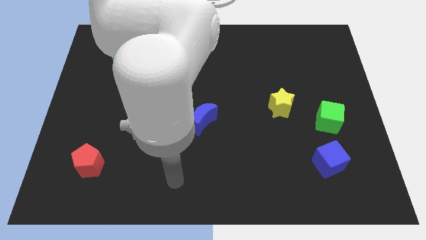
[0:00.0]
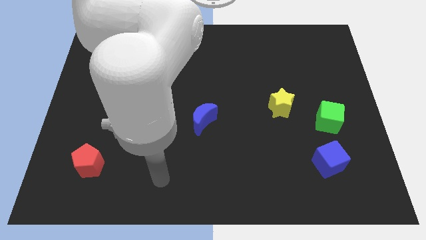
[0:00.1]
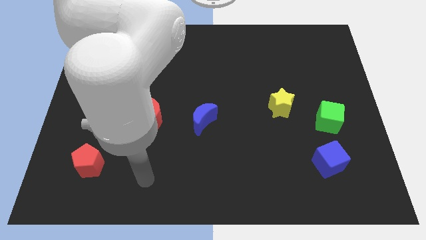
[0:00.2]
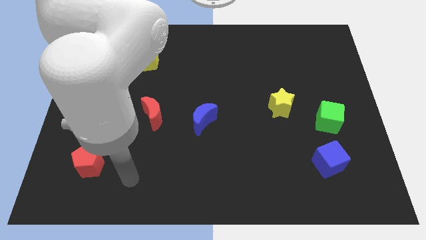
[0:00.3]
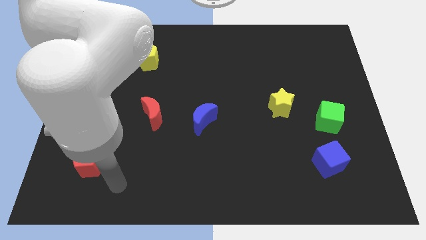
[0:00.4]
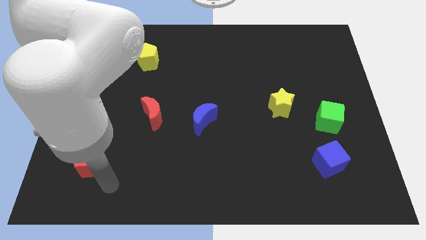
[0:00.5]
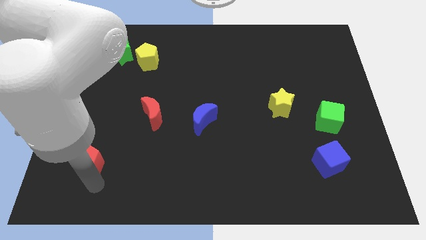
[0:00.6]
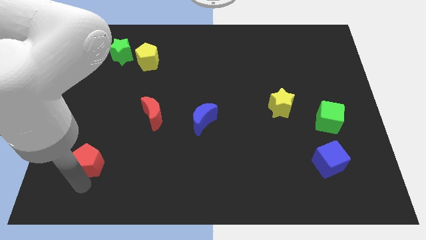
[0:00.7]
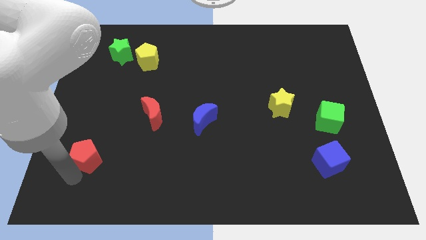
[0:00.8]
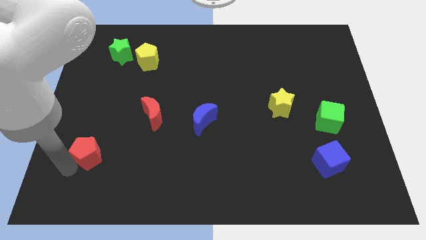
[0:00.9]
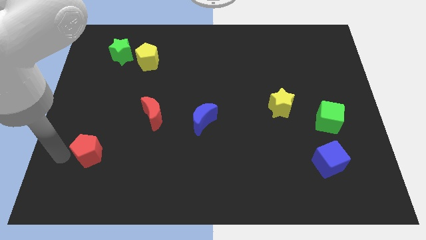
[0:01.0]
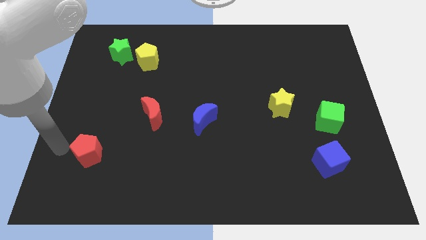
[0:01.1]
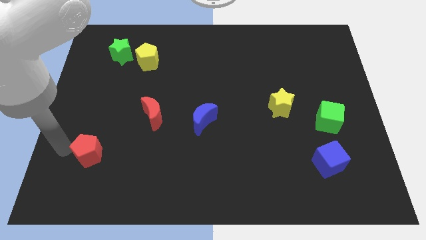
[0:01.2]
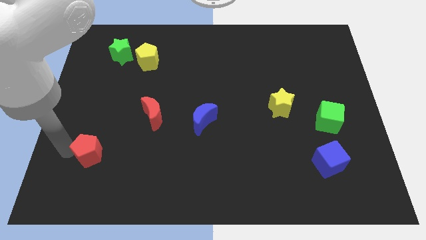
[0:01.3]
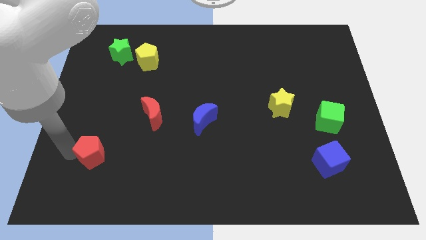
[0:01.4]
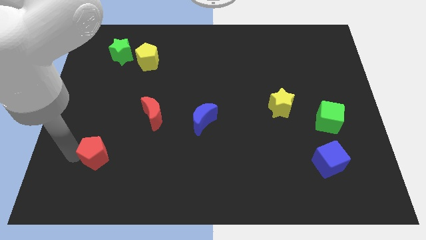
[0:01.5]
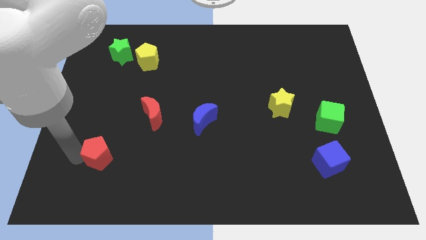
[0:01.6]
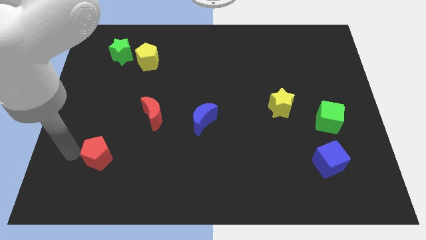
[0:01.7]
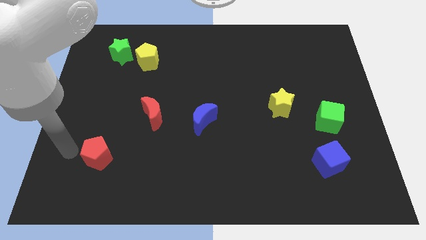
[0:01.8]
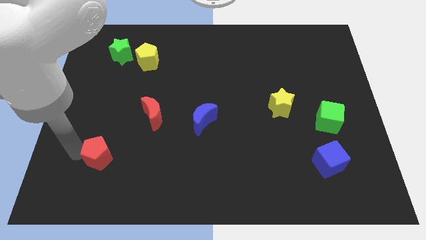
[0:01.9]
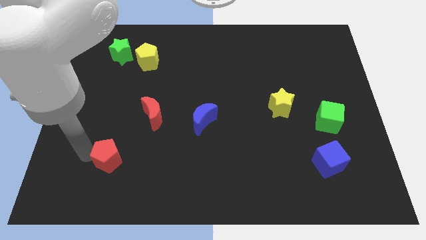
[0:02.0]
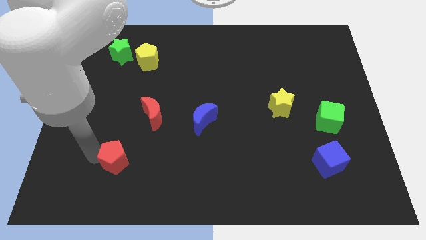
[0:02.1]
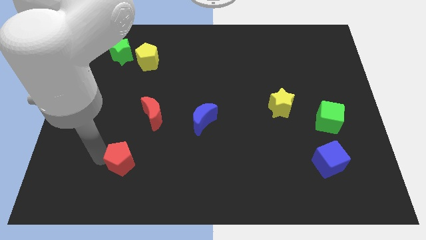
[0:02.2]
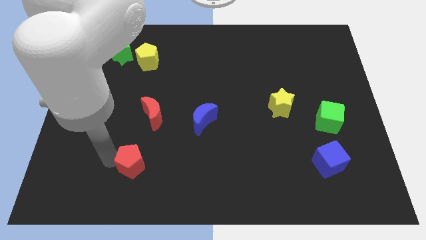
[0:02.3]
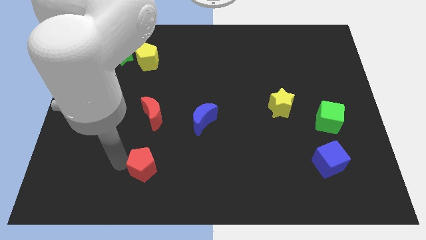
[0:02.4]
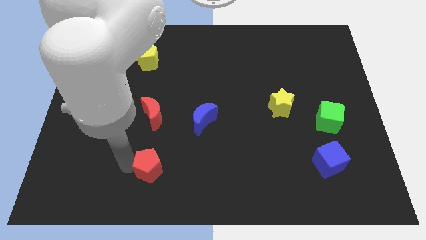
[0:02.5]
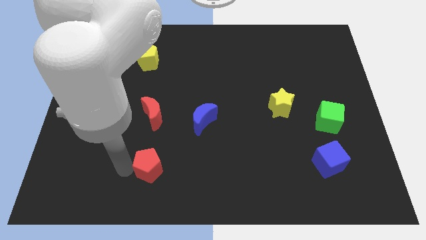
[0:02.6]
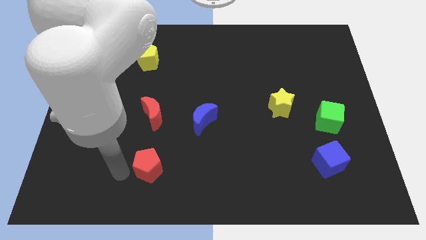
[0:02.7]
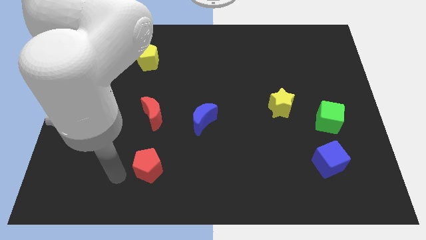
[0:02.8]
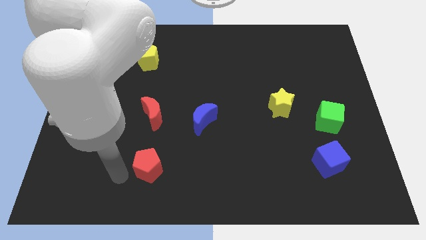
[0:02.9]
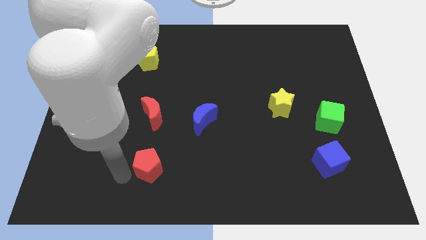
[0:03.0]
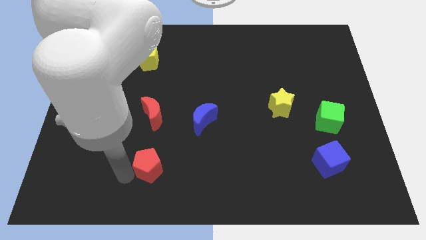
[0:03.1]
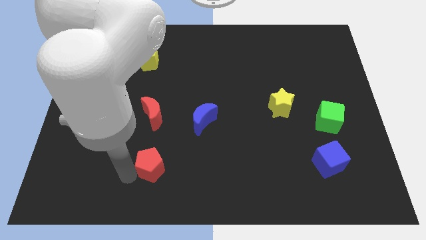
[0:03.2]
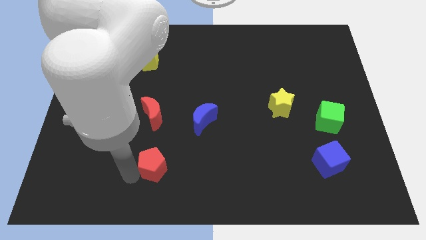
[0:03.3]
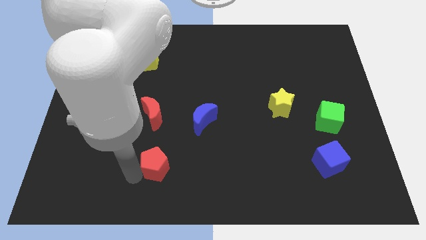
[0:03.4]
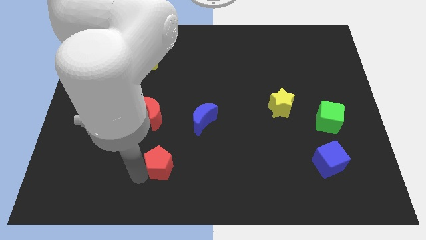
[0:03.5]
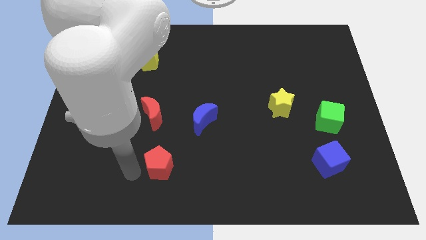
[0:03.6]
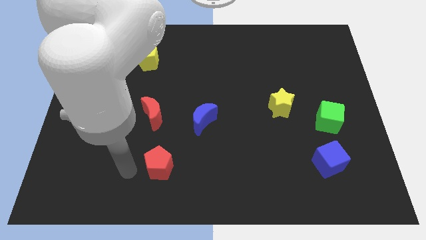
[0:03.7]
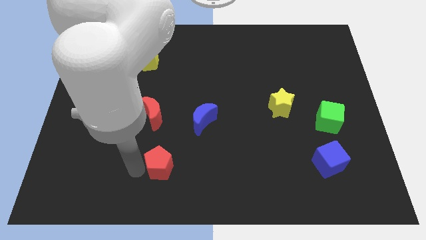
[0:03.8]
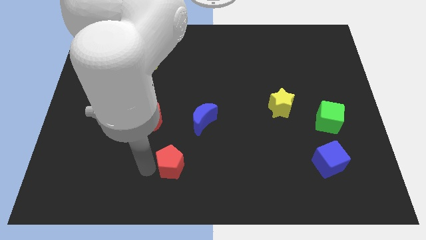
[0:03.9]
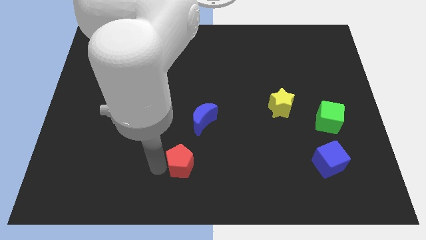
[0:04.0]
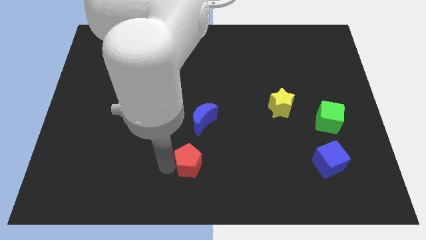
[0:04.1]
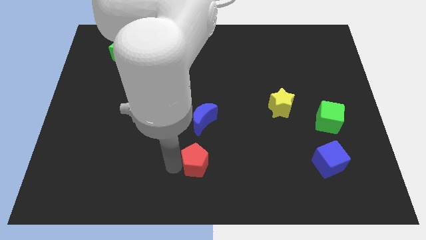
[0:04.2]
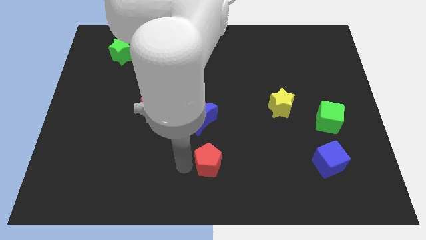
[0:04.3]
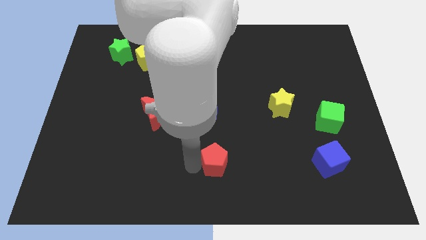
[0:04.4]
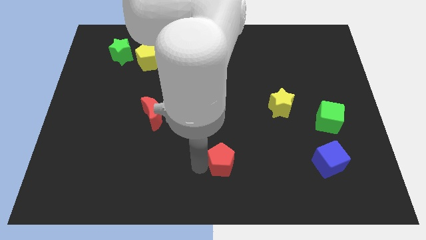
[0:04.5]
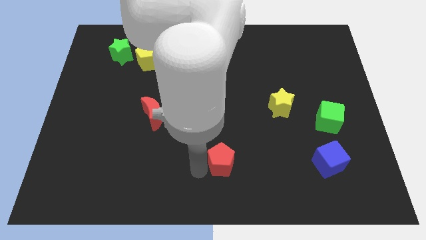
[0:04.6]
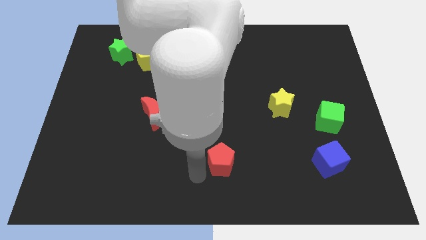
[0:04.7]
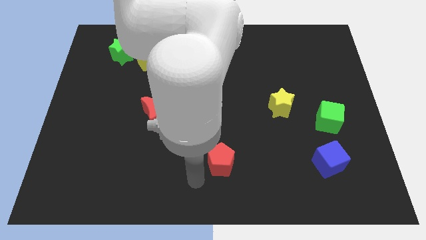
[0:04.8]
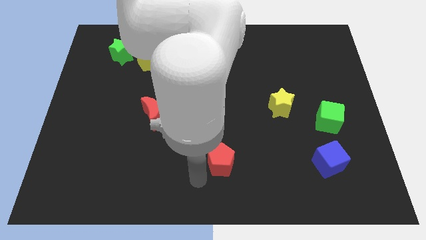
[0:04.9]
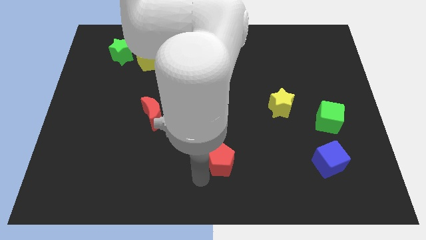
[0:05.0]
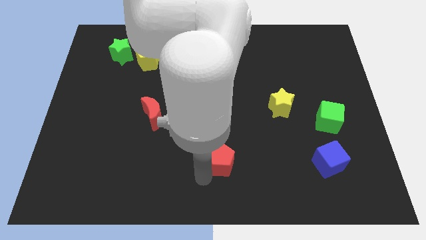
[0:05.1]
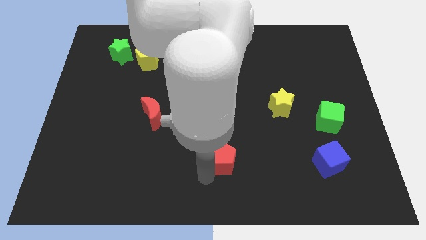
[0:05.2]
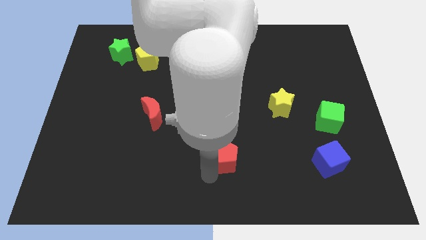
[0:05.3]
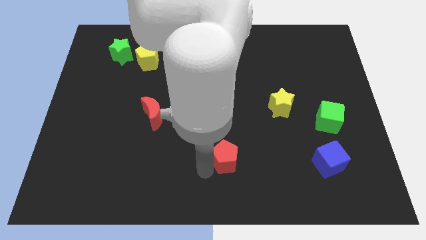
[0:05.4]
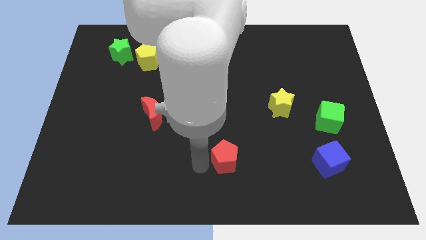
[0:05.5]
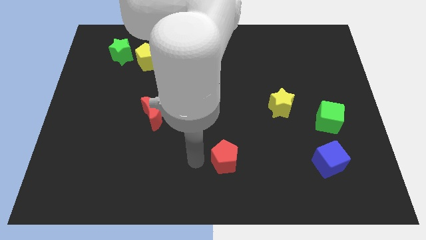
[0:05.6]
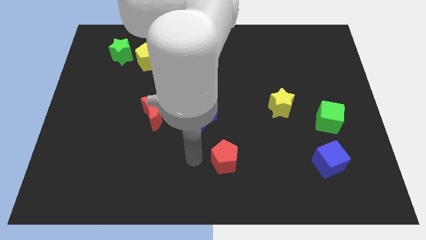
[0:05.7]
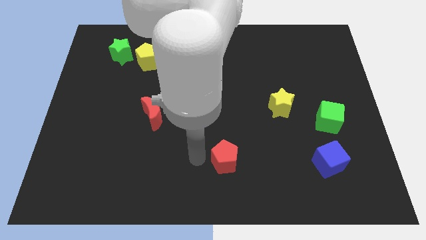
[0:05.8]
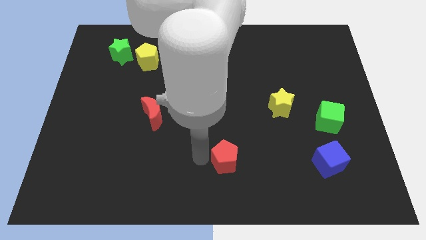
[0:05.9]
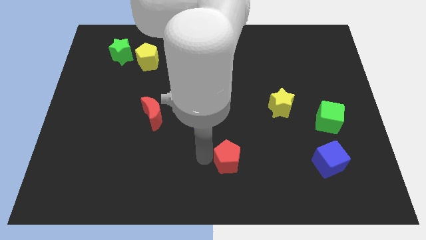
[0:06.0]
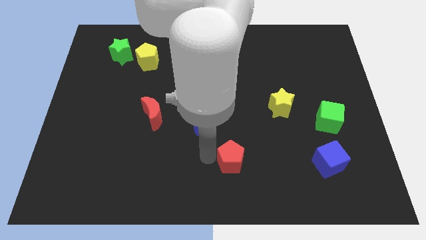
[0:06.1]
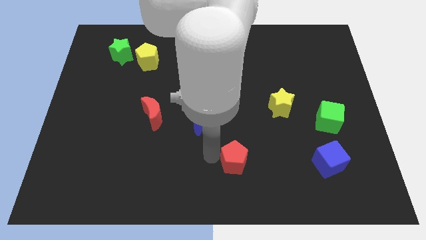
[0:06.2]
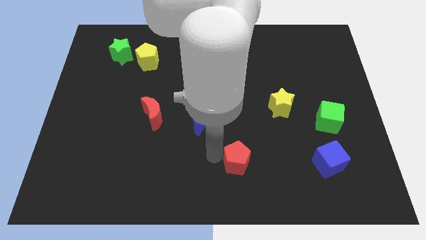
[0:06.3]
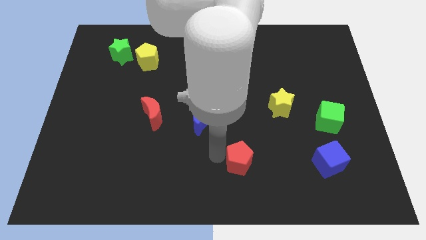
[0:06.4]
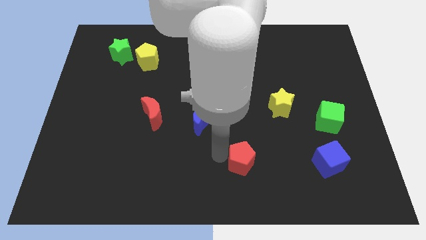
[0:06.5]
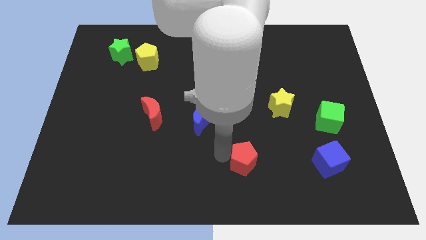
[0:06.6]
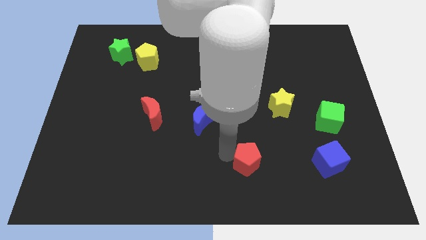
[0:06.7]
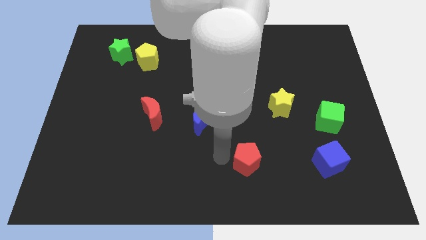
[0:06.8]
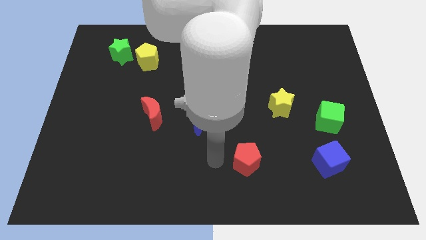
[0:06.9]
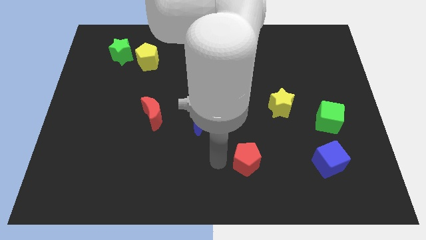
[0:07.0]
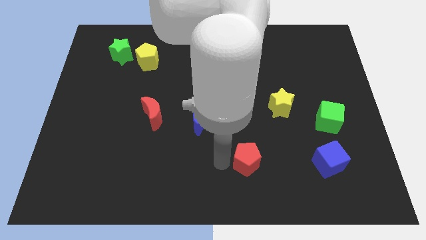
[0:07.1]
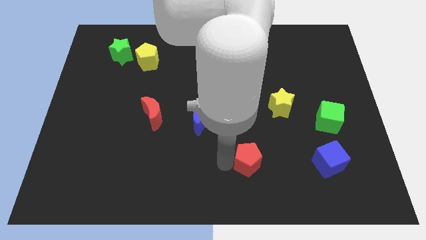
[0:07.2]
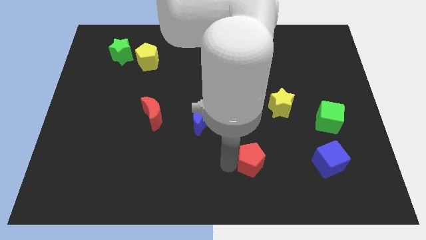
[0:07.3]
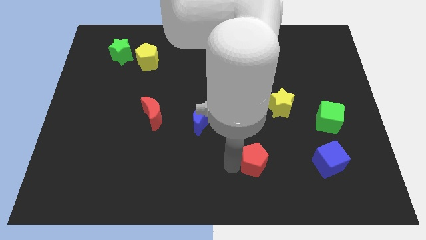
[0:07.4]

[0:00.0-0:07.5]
slide the red pentagon to the left side of the blue cube
